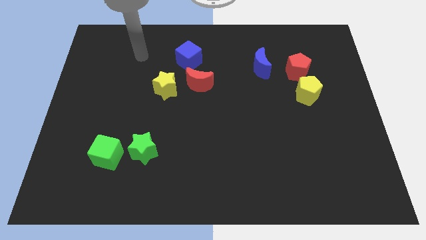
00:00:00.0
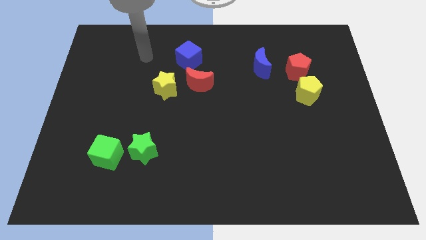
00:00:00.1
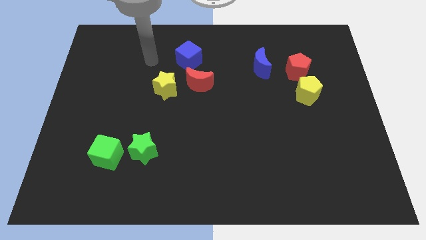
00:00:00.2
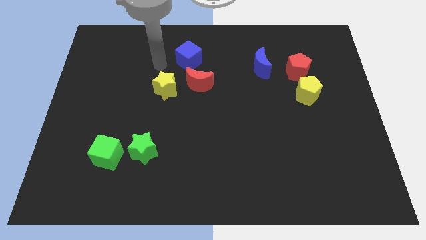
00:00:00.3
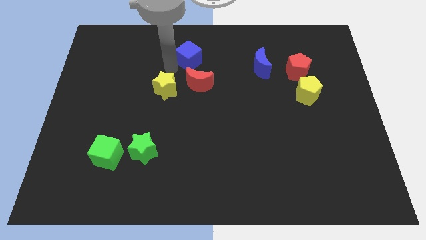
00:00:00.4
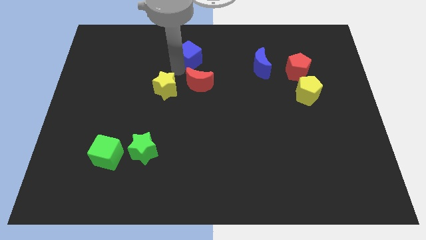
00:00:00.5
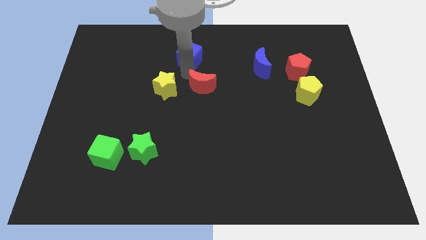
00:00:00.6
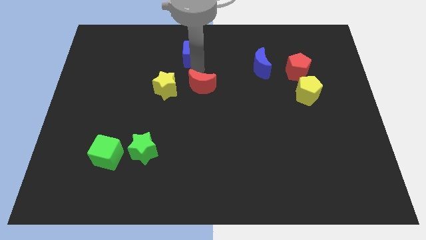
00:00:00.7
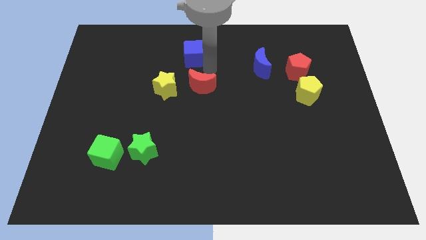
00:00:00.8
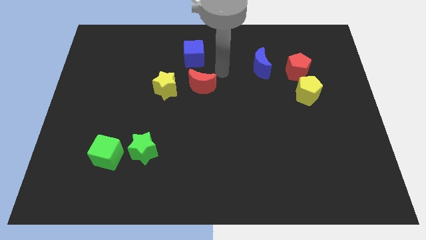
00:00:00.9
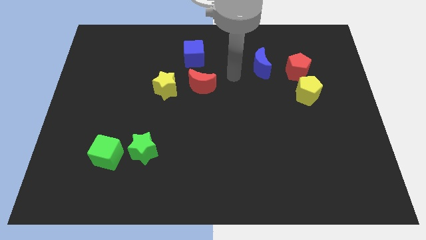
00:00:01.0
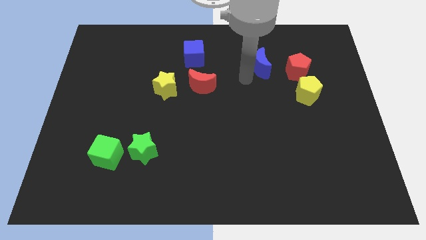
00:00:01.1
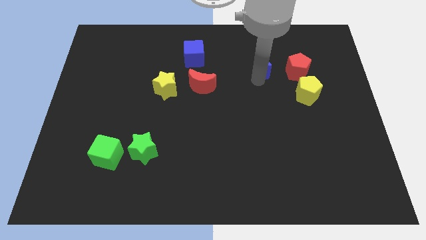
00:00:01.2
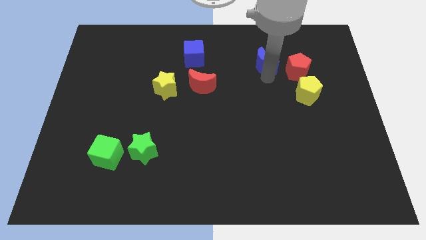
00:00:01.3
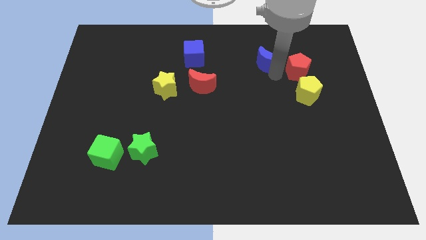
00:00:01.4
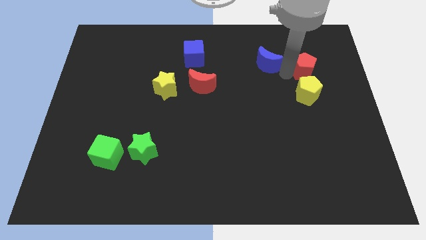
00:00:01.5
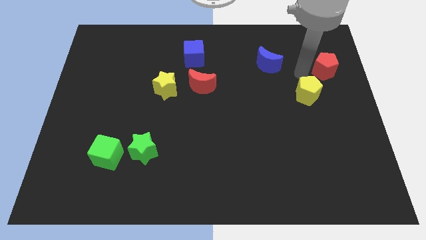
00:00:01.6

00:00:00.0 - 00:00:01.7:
pull the yellow pentagon apart from the red pentagon

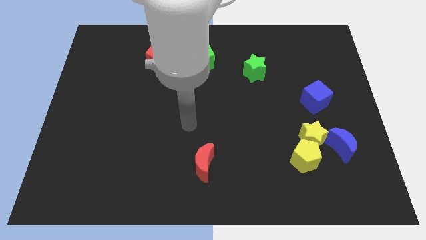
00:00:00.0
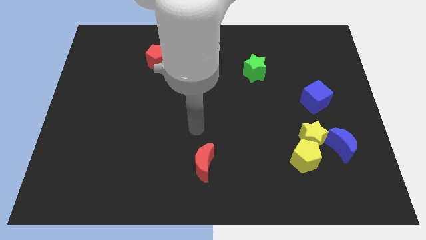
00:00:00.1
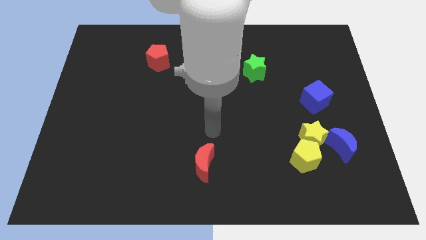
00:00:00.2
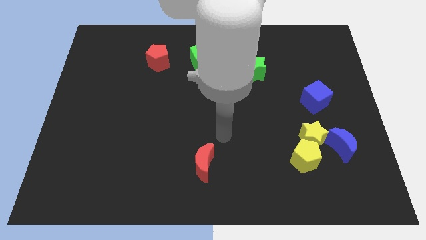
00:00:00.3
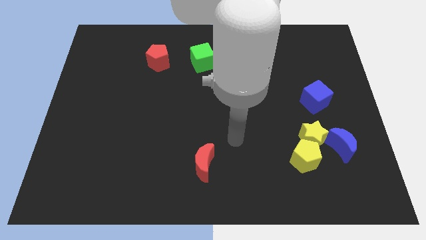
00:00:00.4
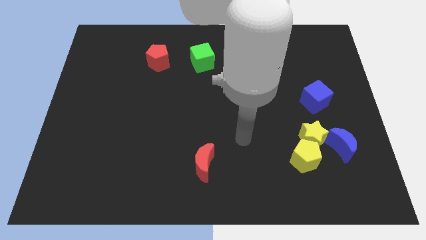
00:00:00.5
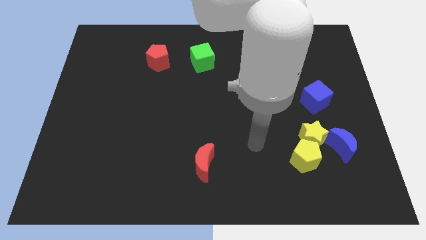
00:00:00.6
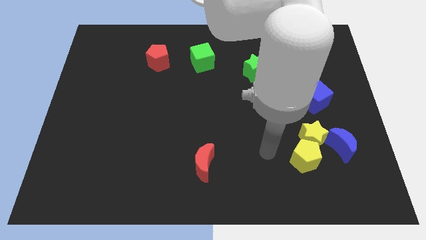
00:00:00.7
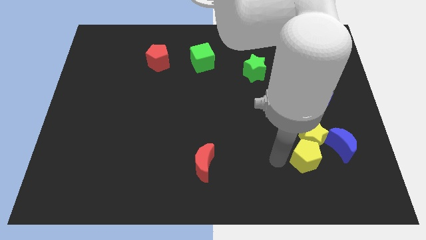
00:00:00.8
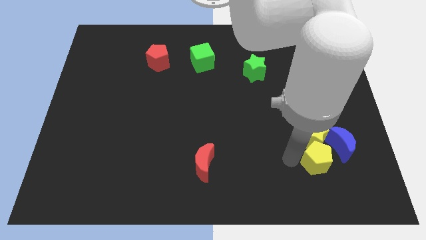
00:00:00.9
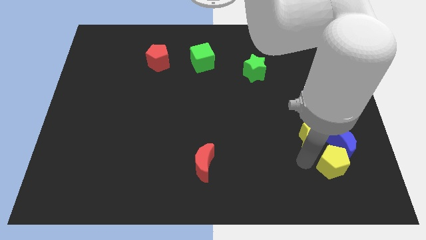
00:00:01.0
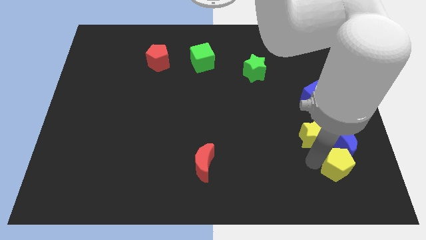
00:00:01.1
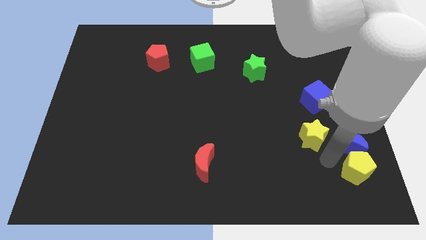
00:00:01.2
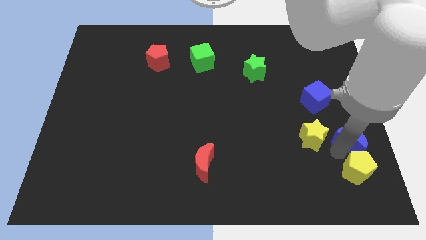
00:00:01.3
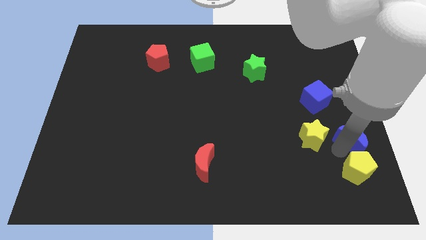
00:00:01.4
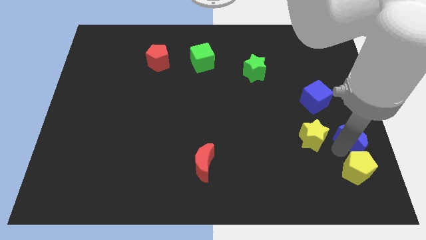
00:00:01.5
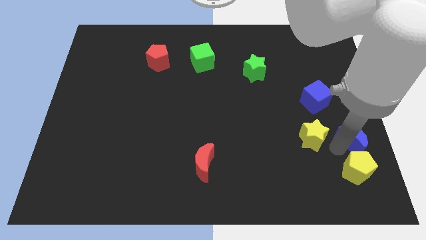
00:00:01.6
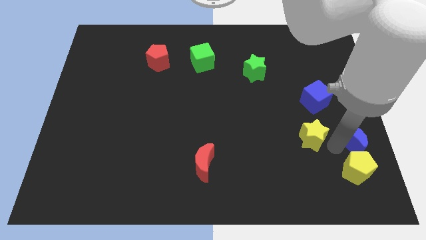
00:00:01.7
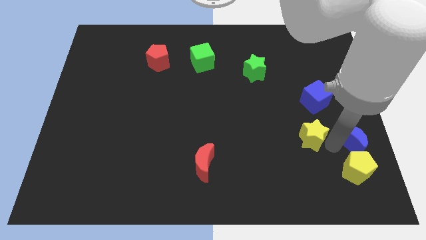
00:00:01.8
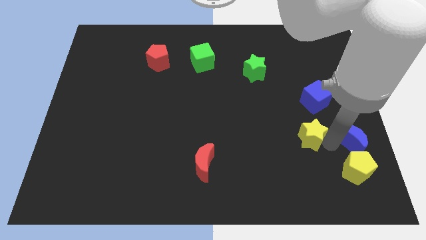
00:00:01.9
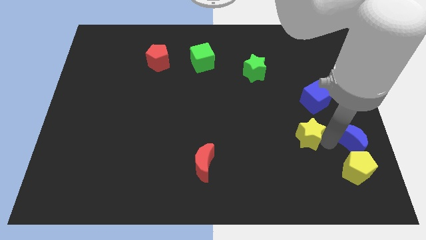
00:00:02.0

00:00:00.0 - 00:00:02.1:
move the yellow star away from the yellow pentagon and blue moon

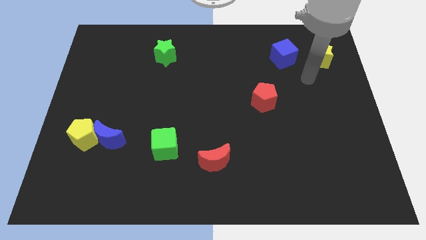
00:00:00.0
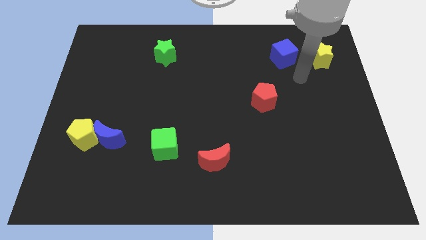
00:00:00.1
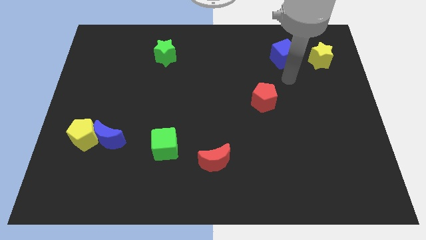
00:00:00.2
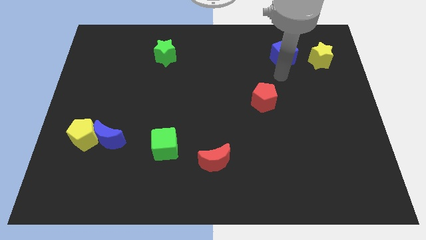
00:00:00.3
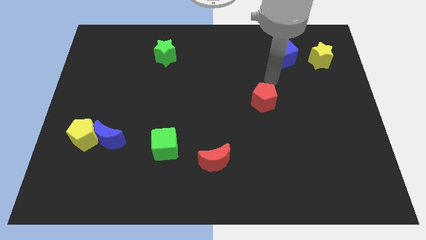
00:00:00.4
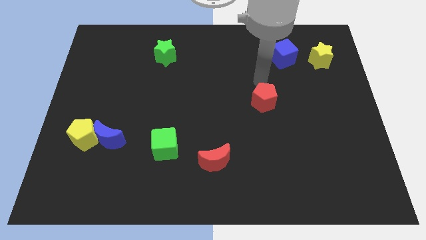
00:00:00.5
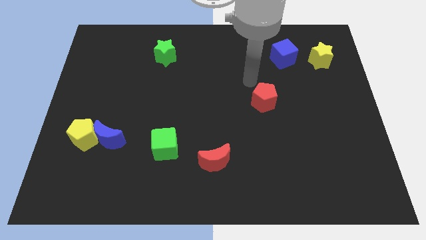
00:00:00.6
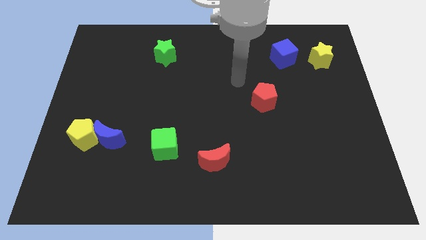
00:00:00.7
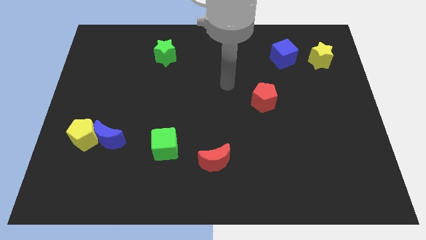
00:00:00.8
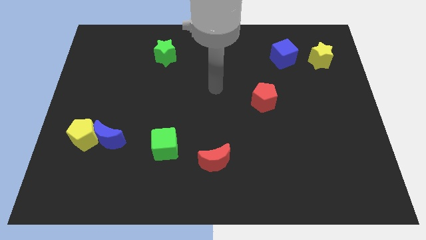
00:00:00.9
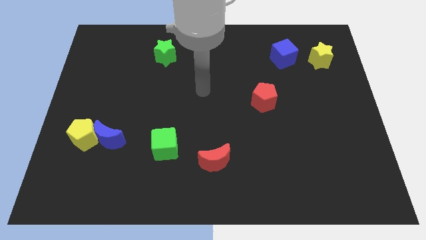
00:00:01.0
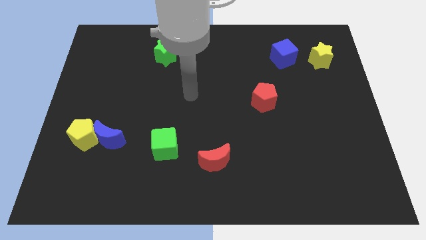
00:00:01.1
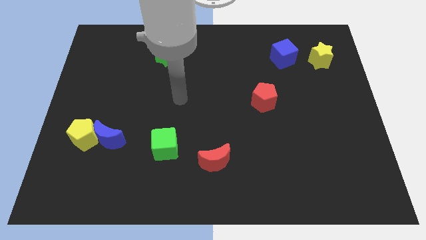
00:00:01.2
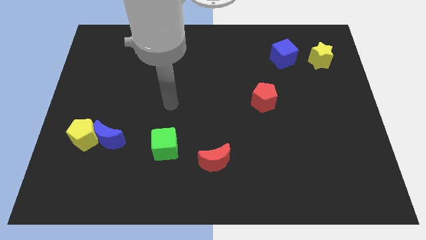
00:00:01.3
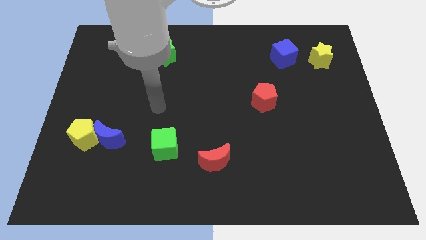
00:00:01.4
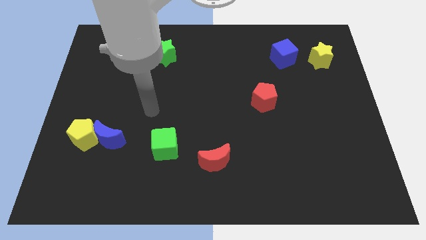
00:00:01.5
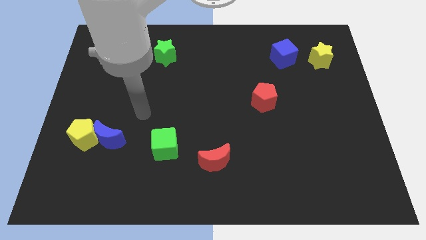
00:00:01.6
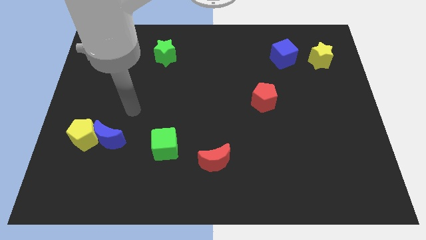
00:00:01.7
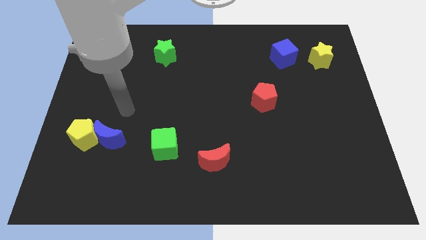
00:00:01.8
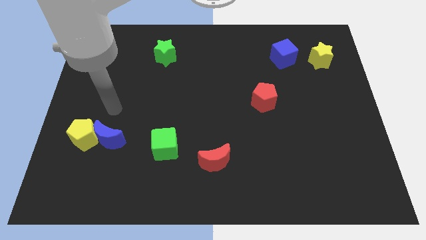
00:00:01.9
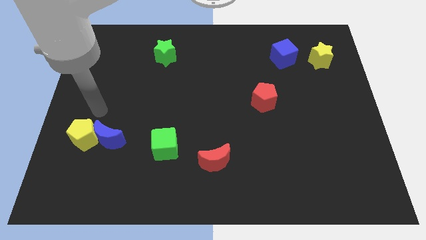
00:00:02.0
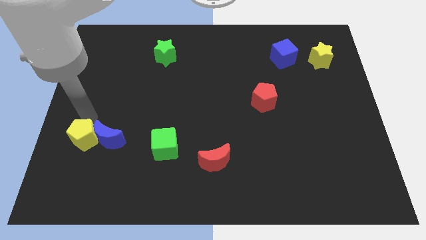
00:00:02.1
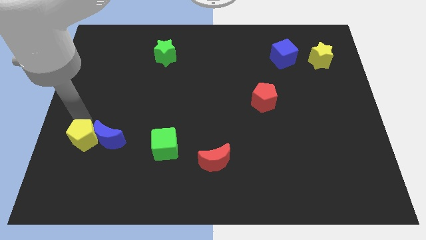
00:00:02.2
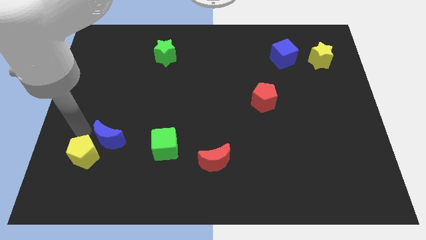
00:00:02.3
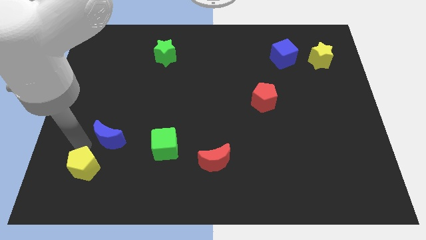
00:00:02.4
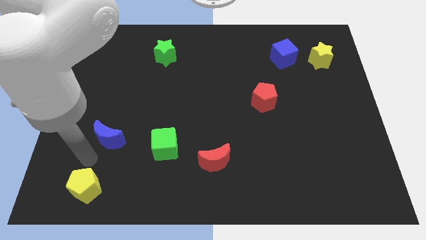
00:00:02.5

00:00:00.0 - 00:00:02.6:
move the blue moon away from the yellow pentagon

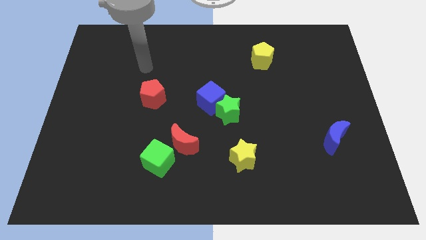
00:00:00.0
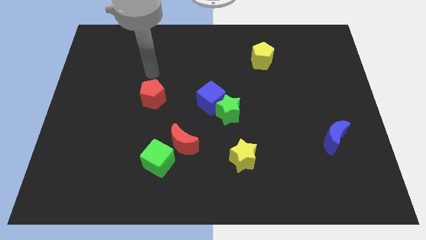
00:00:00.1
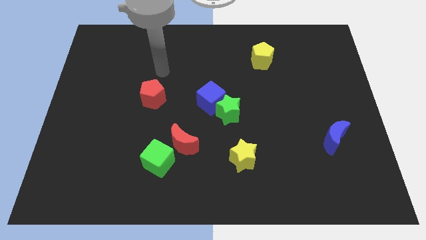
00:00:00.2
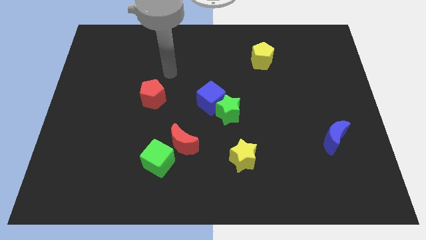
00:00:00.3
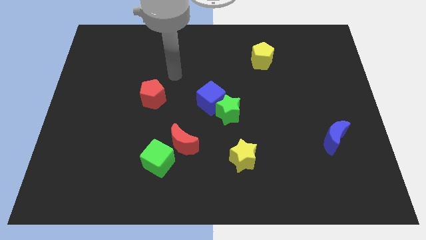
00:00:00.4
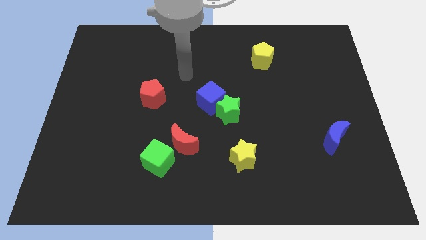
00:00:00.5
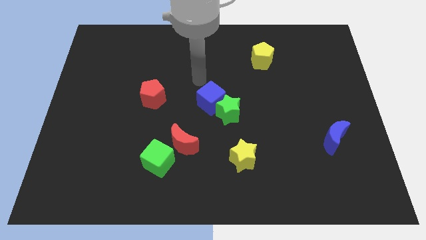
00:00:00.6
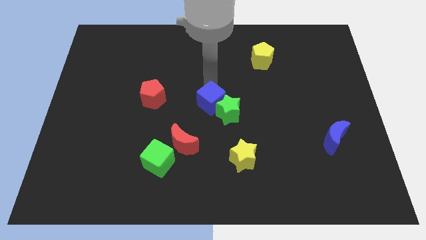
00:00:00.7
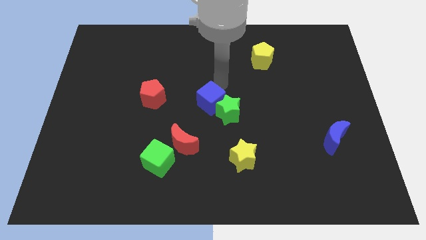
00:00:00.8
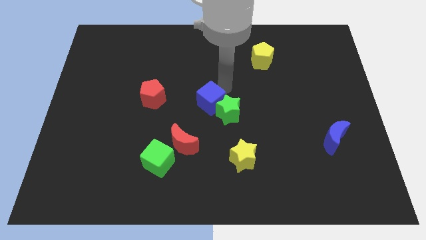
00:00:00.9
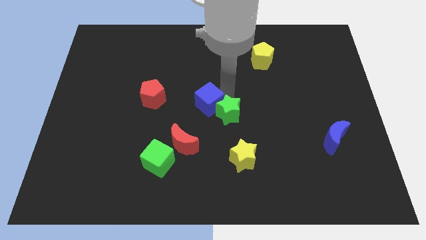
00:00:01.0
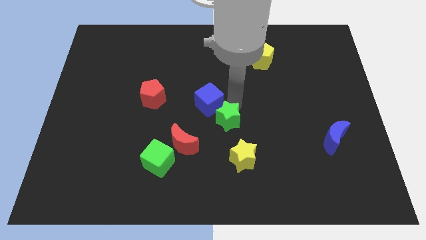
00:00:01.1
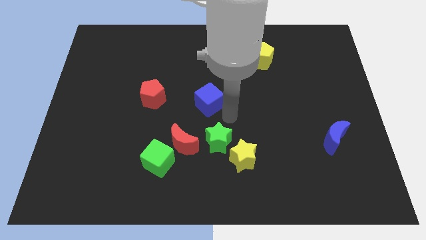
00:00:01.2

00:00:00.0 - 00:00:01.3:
separate the blue cube from the green star

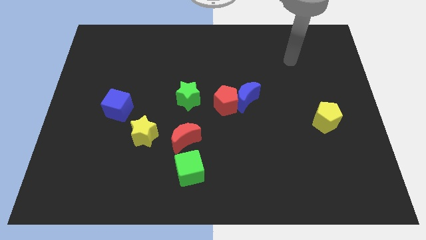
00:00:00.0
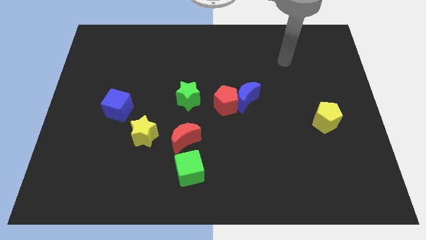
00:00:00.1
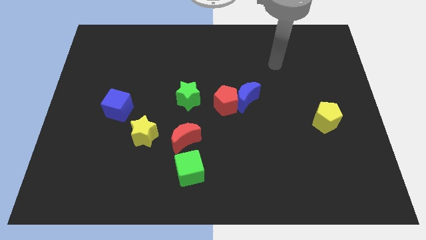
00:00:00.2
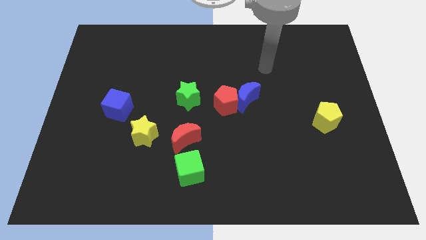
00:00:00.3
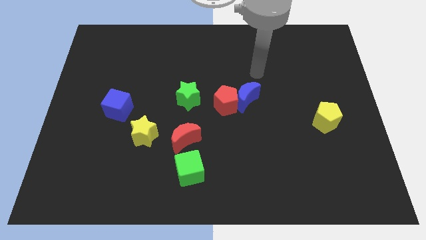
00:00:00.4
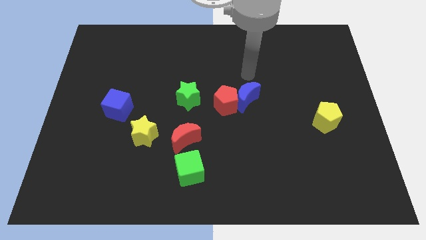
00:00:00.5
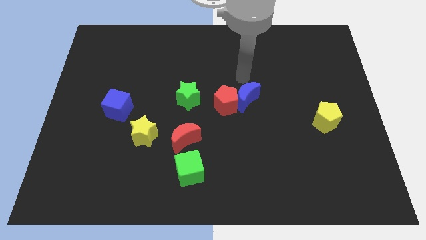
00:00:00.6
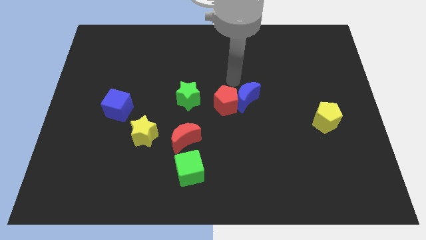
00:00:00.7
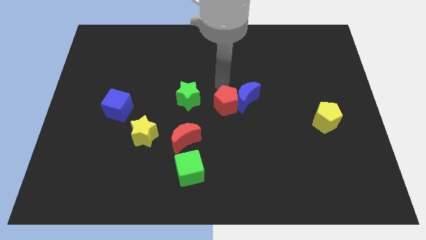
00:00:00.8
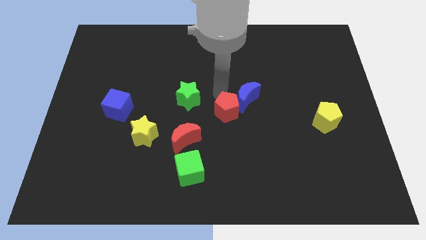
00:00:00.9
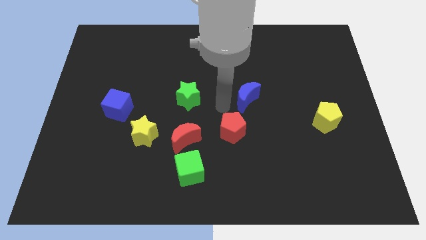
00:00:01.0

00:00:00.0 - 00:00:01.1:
pull the blue moon apart from the red pentagon

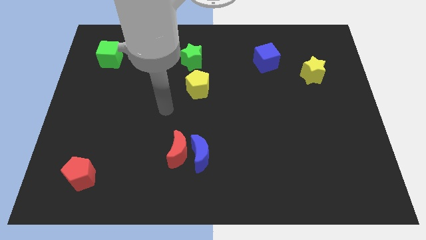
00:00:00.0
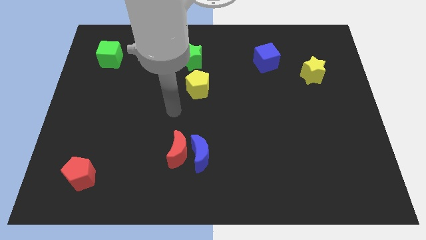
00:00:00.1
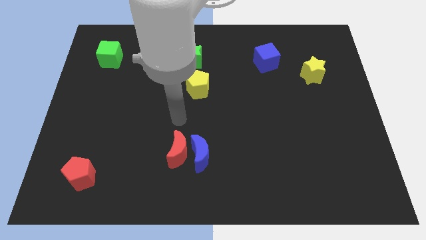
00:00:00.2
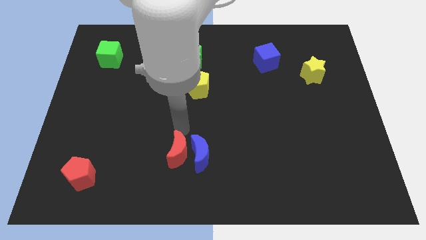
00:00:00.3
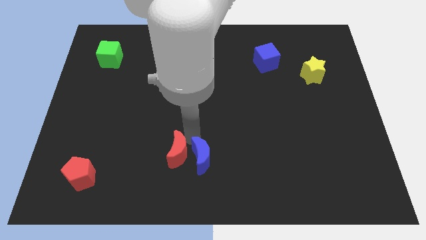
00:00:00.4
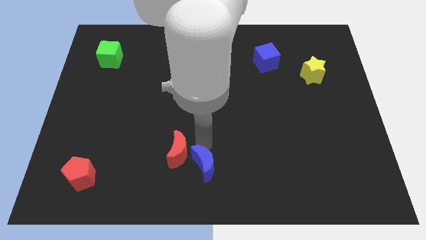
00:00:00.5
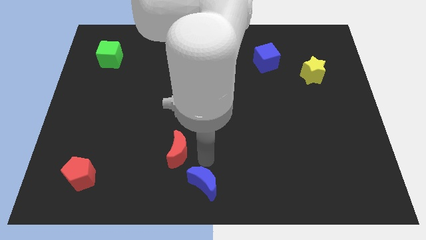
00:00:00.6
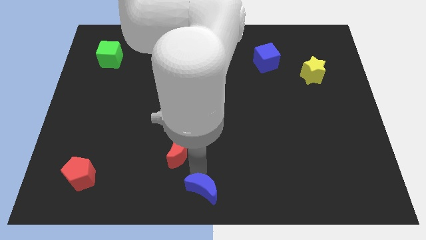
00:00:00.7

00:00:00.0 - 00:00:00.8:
pull the red moon apart from the blue moon
